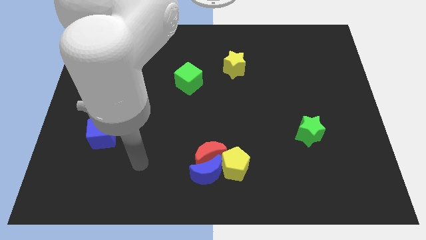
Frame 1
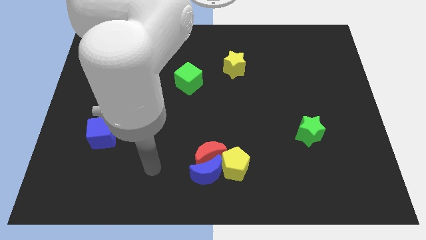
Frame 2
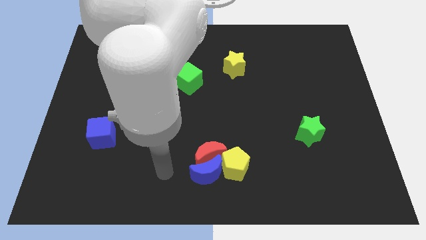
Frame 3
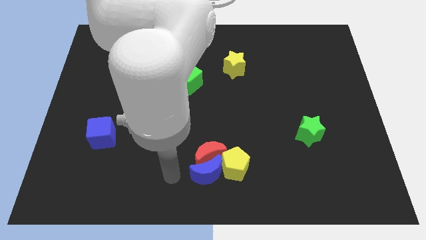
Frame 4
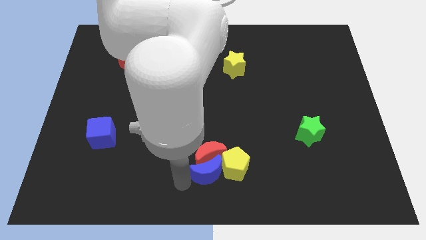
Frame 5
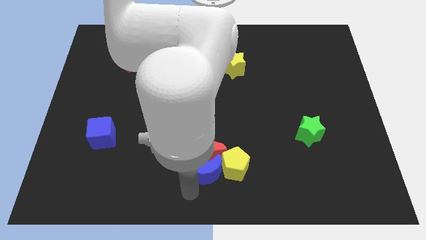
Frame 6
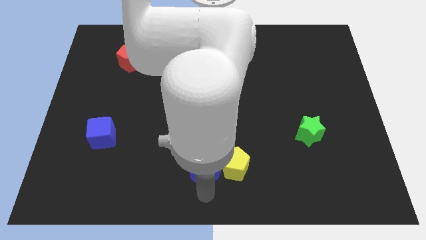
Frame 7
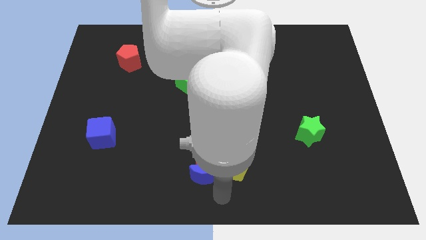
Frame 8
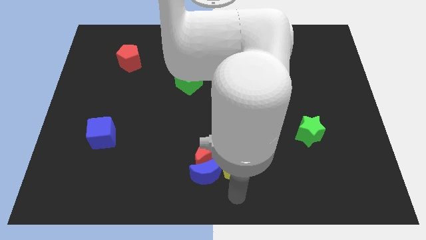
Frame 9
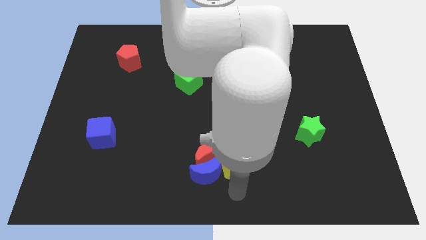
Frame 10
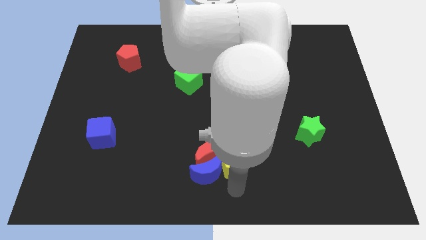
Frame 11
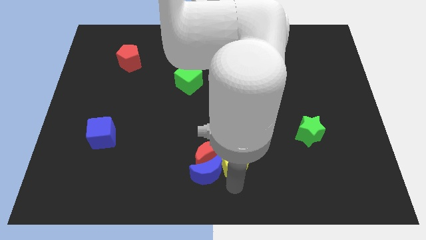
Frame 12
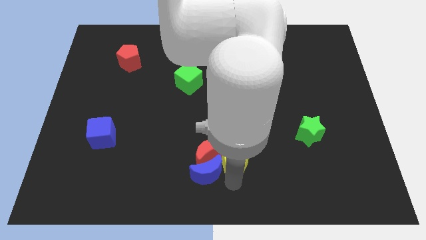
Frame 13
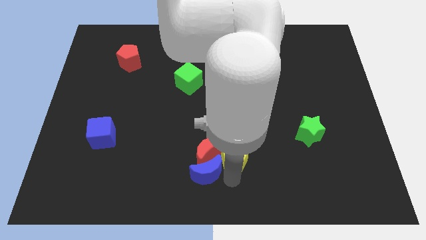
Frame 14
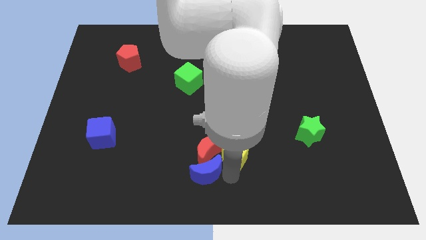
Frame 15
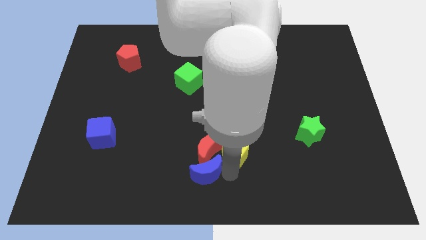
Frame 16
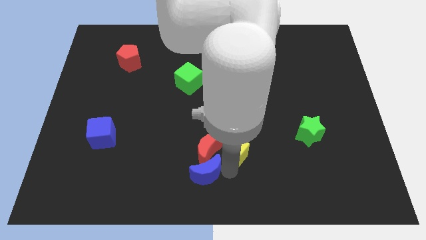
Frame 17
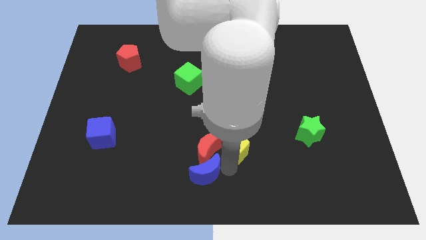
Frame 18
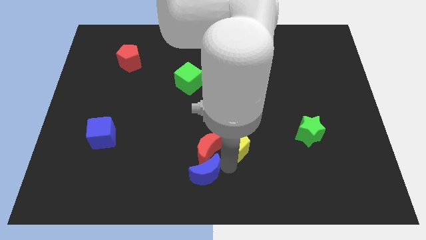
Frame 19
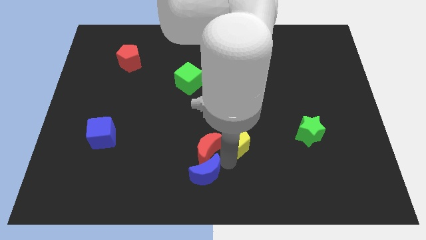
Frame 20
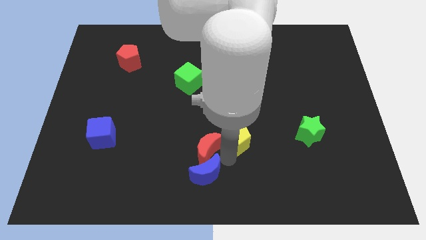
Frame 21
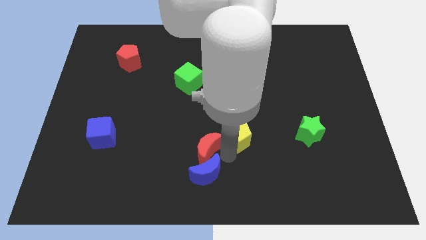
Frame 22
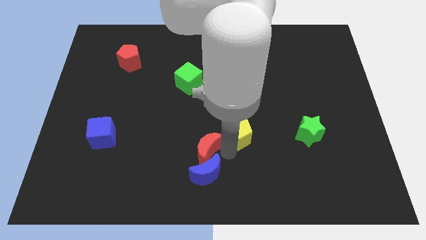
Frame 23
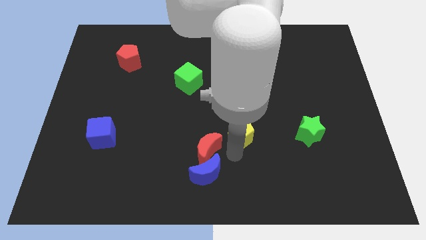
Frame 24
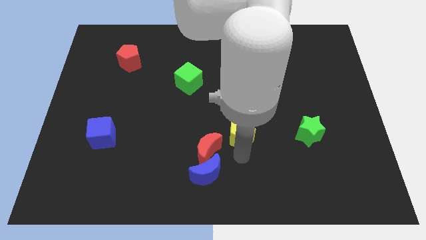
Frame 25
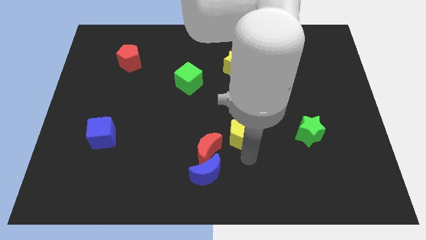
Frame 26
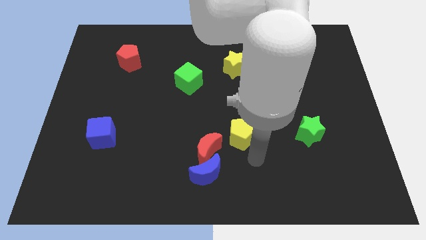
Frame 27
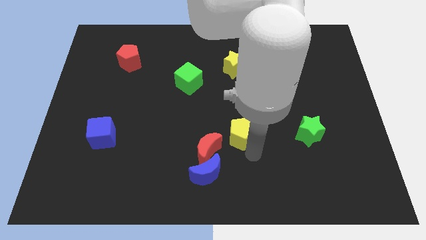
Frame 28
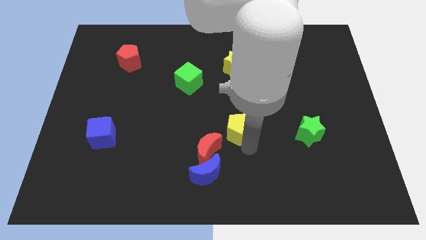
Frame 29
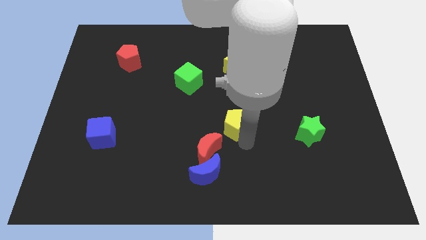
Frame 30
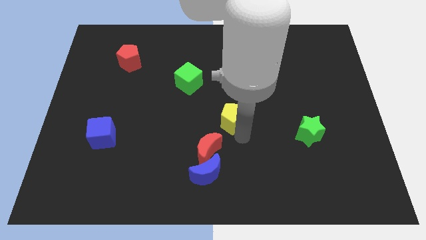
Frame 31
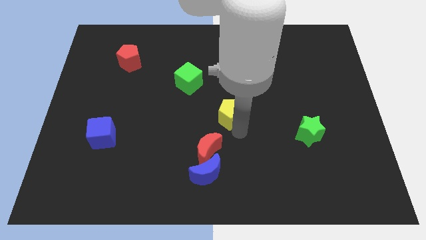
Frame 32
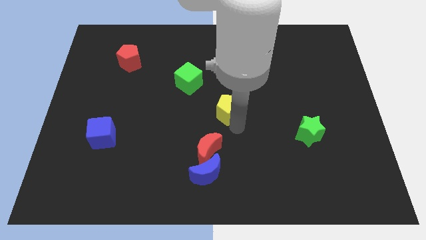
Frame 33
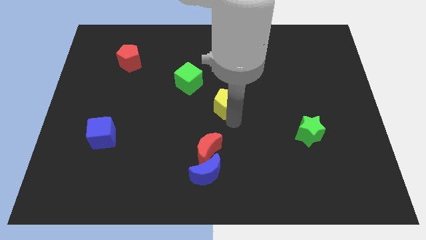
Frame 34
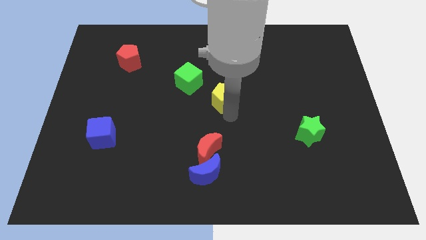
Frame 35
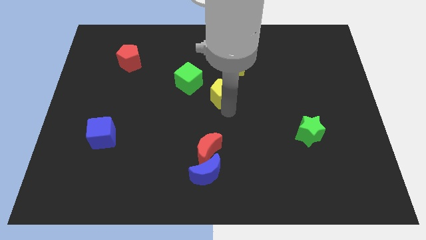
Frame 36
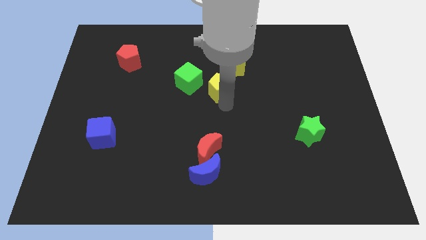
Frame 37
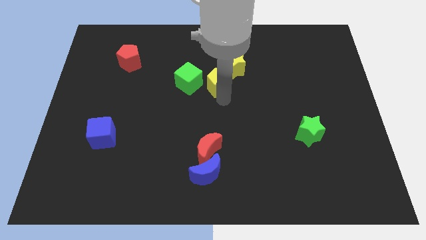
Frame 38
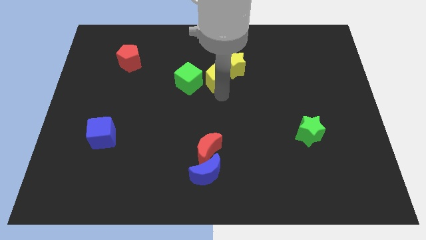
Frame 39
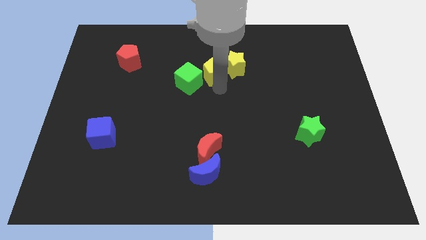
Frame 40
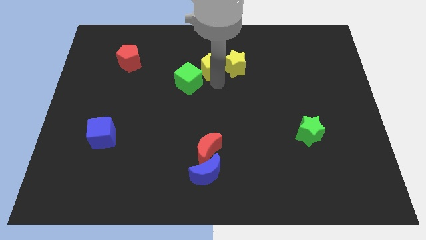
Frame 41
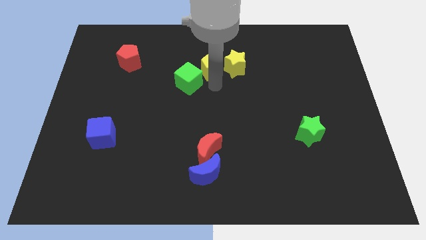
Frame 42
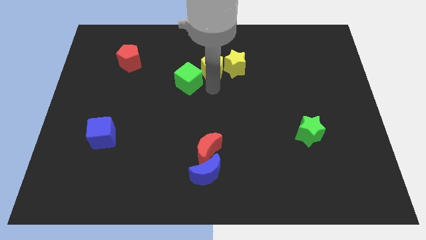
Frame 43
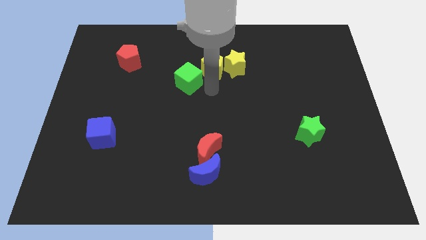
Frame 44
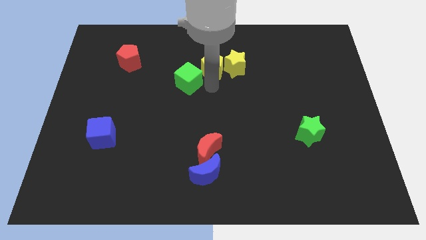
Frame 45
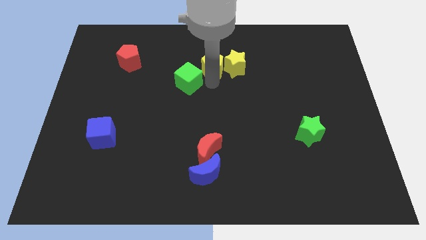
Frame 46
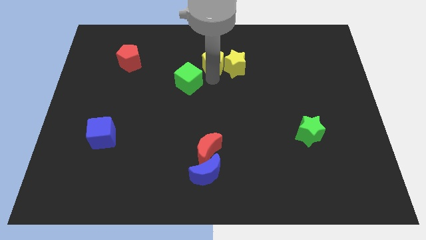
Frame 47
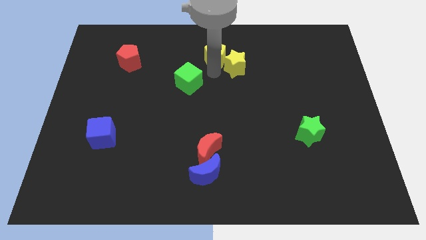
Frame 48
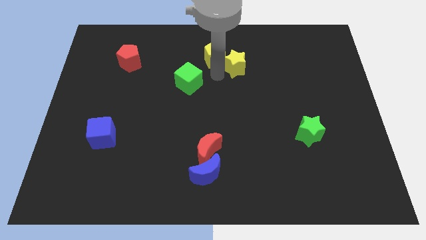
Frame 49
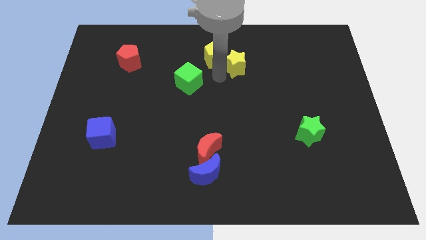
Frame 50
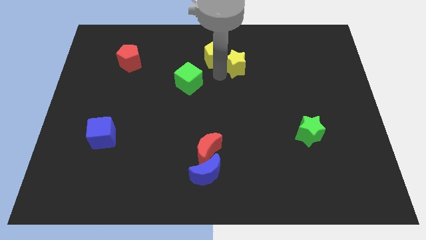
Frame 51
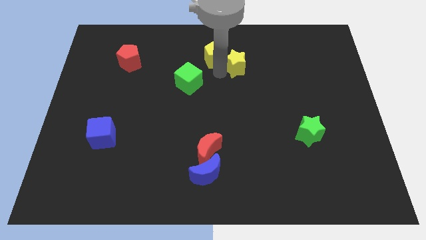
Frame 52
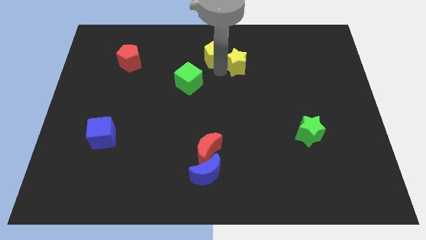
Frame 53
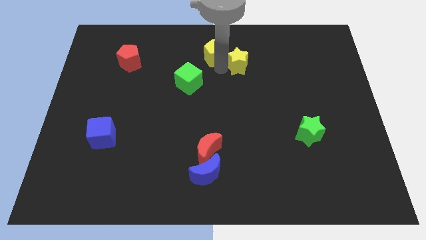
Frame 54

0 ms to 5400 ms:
slide the yellow pentagon to the towards your base

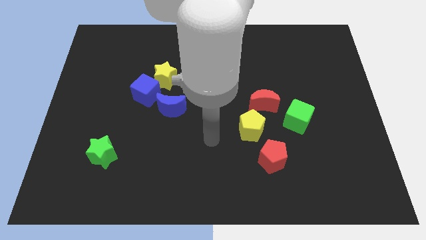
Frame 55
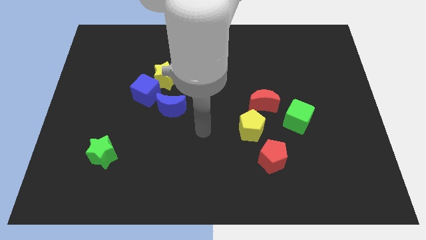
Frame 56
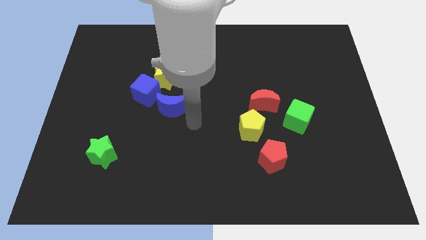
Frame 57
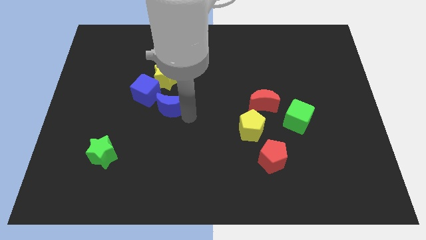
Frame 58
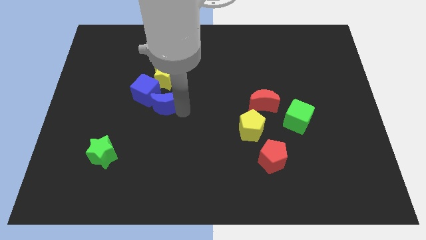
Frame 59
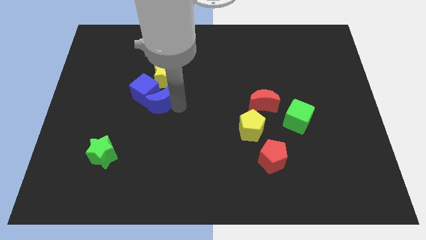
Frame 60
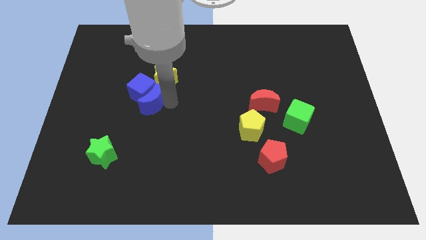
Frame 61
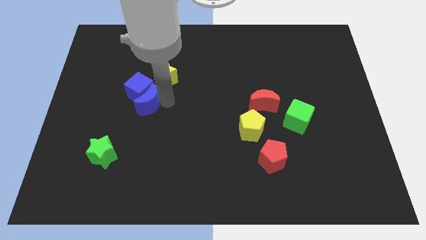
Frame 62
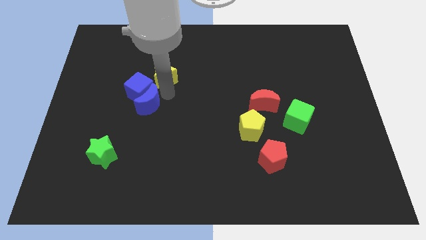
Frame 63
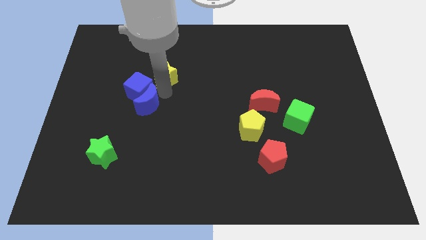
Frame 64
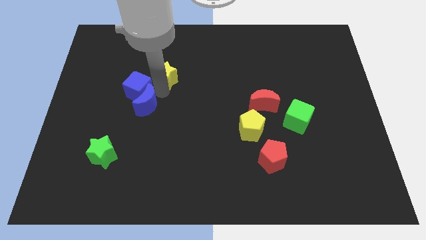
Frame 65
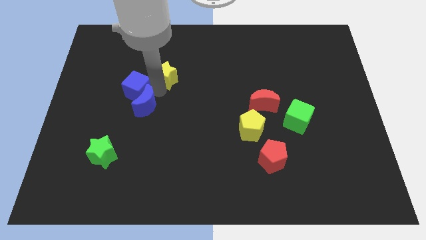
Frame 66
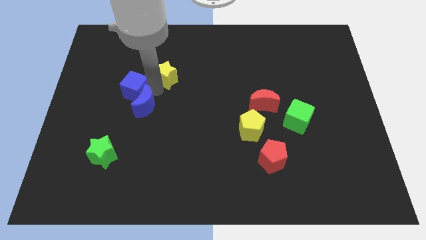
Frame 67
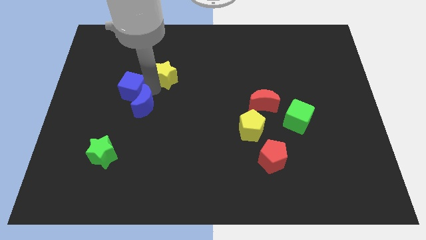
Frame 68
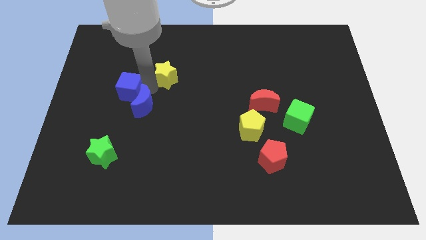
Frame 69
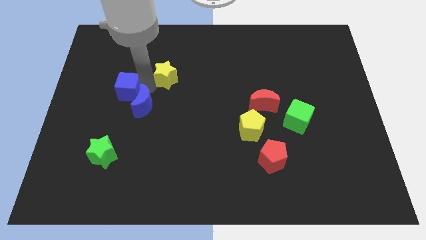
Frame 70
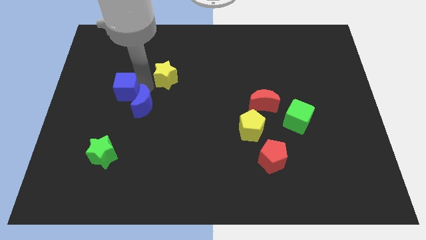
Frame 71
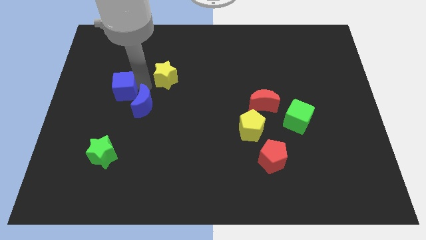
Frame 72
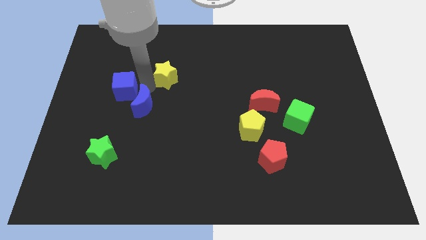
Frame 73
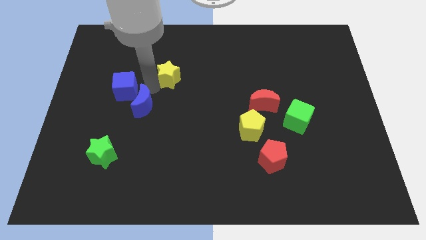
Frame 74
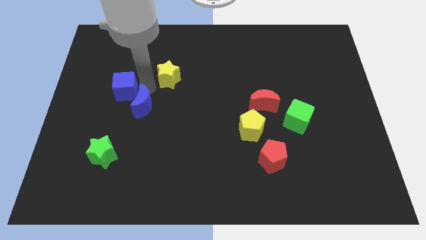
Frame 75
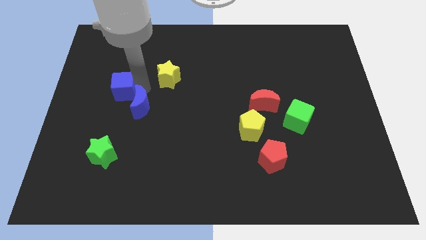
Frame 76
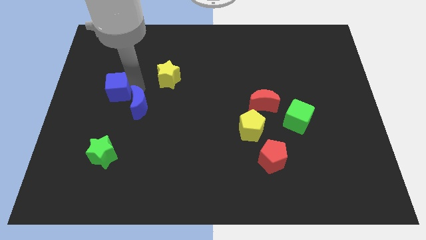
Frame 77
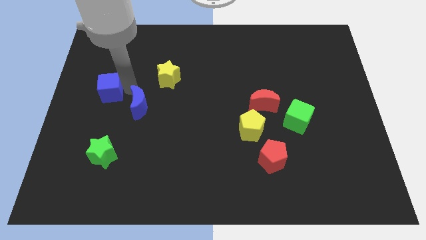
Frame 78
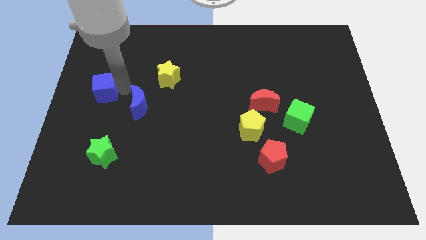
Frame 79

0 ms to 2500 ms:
put the blue cube to the left side of the board
